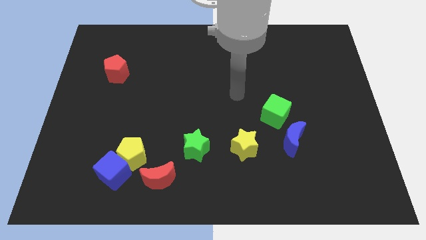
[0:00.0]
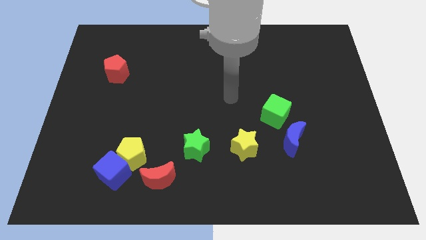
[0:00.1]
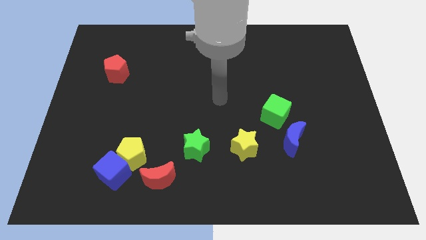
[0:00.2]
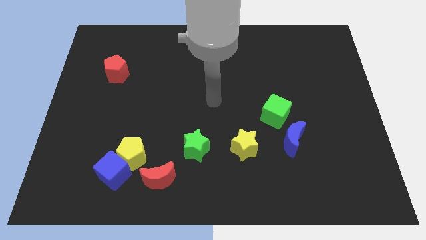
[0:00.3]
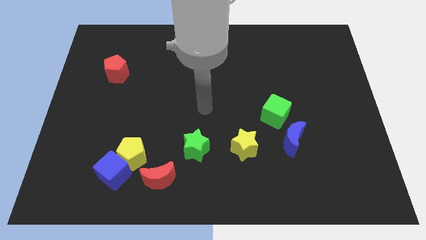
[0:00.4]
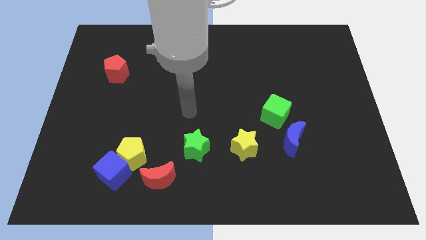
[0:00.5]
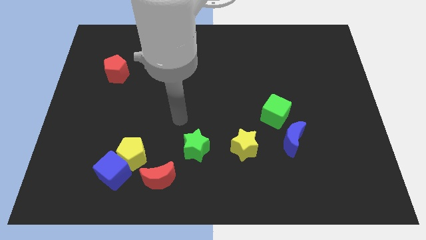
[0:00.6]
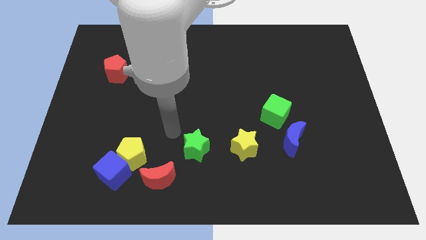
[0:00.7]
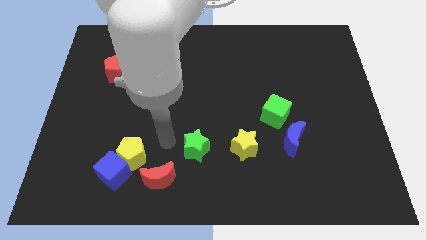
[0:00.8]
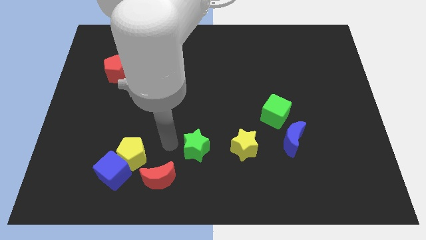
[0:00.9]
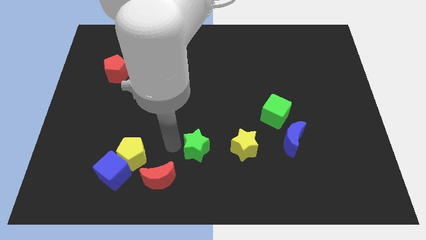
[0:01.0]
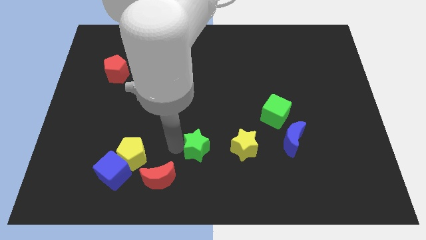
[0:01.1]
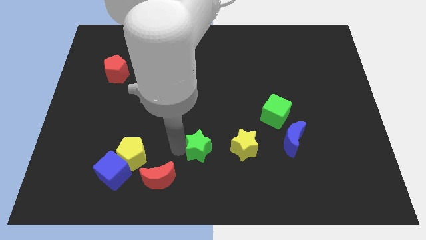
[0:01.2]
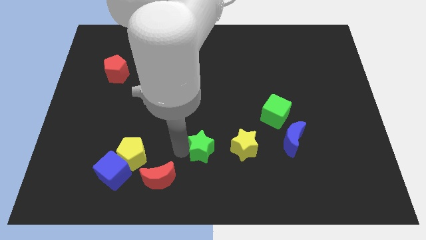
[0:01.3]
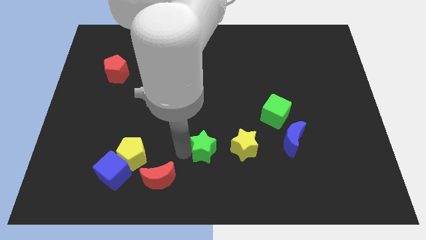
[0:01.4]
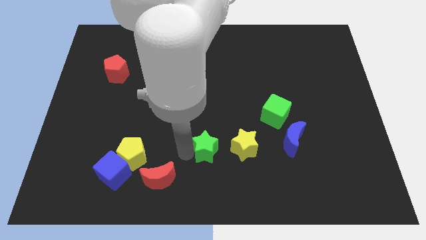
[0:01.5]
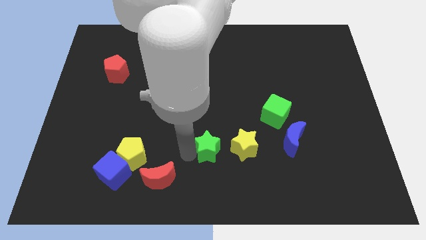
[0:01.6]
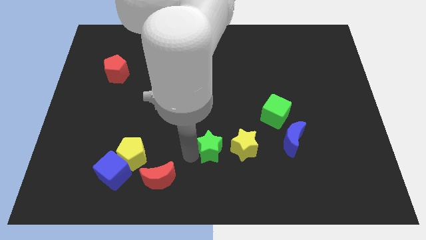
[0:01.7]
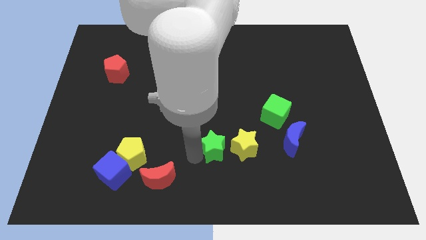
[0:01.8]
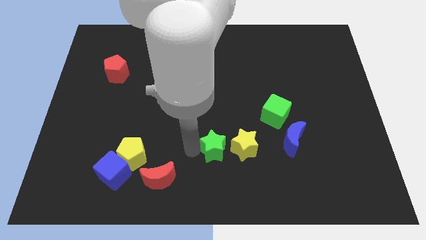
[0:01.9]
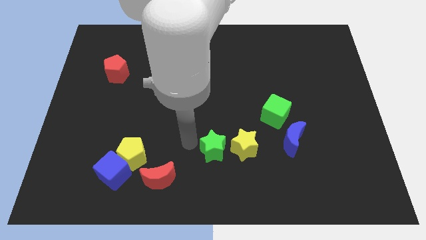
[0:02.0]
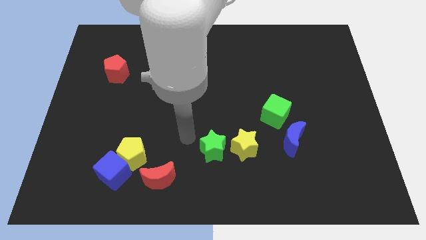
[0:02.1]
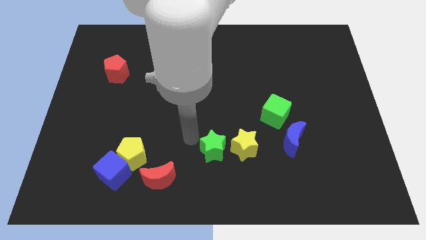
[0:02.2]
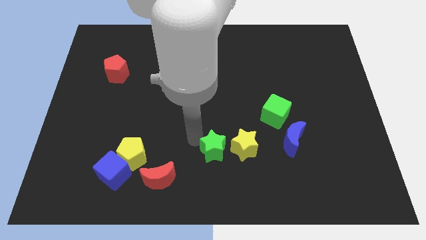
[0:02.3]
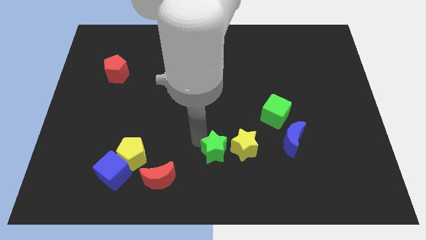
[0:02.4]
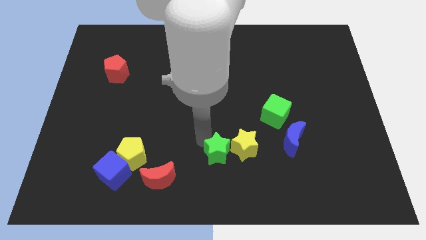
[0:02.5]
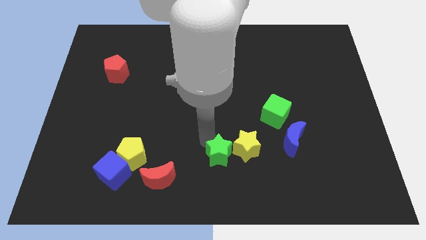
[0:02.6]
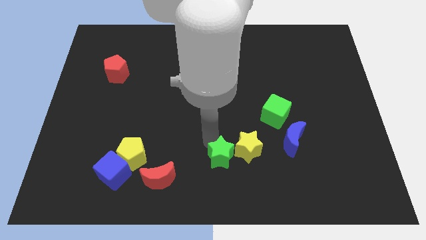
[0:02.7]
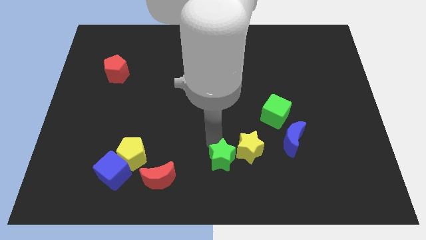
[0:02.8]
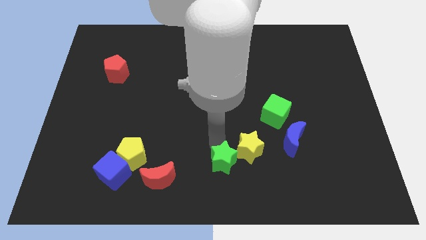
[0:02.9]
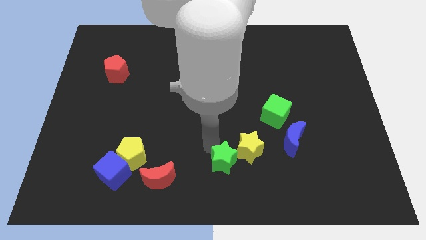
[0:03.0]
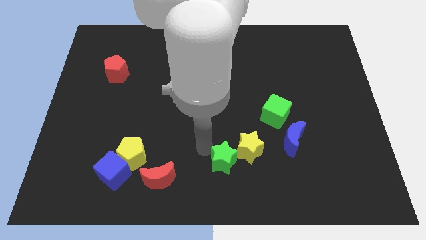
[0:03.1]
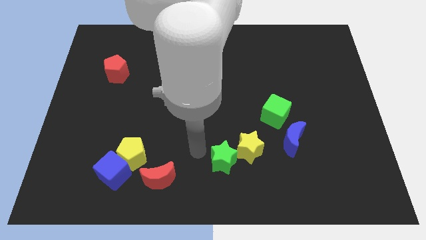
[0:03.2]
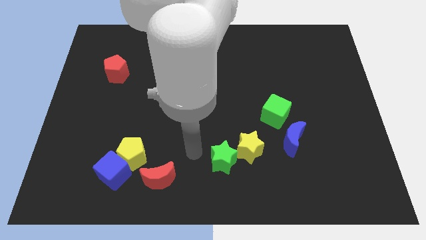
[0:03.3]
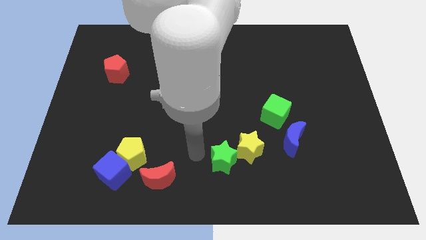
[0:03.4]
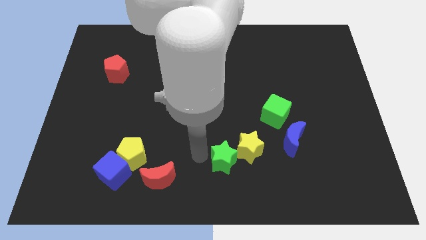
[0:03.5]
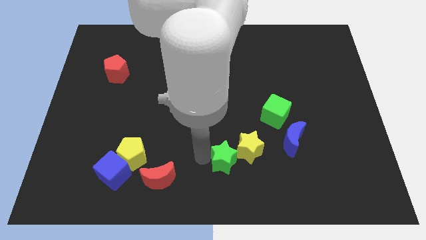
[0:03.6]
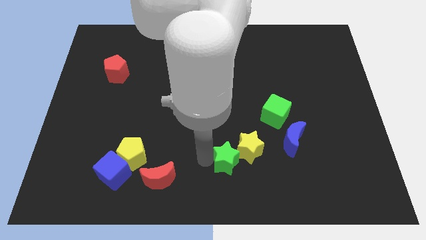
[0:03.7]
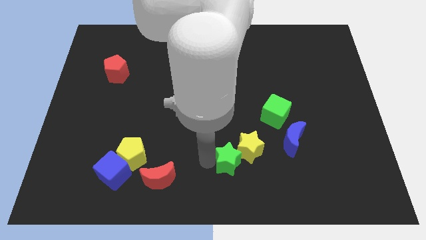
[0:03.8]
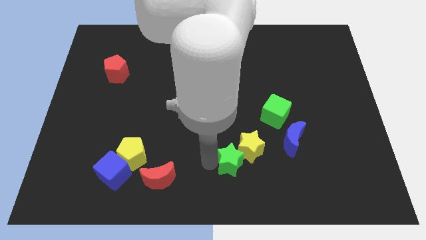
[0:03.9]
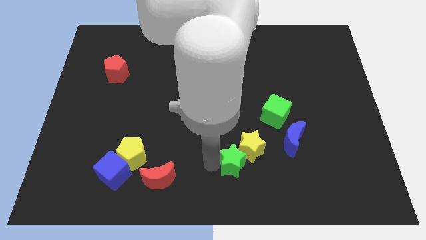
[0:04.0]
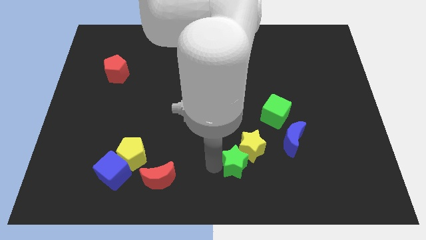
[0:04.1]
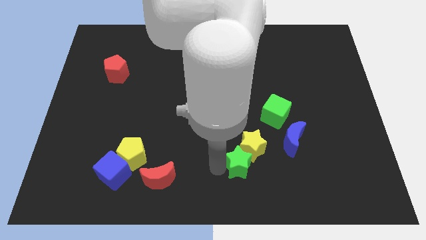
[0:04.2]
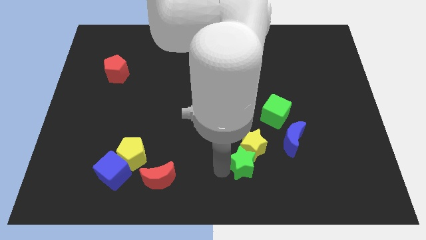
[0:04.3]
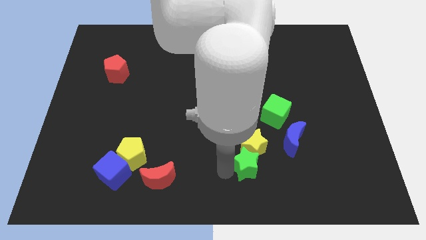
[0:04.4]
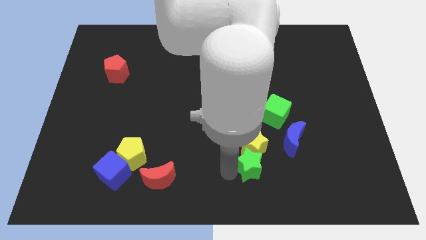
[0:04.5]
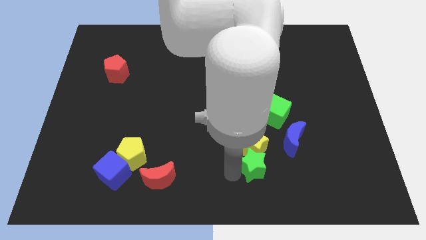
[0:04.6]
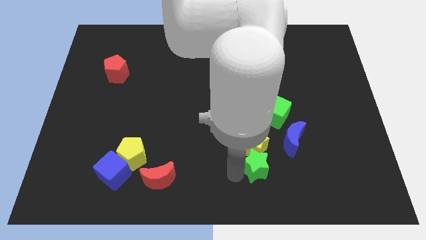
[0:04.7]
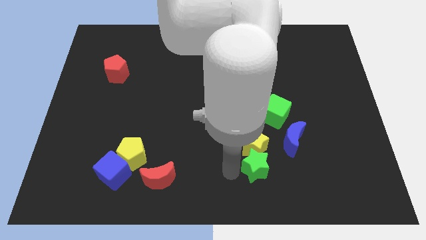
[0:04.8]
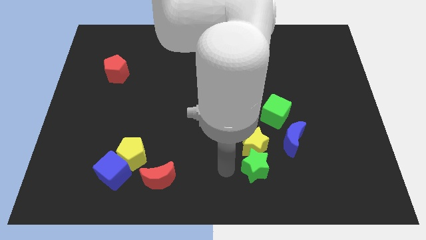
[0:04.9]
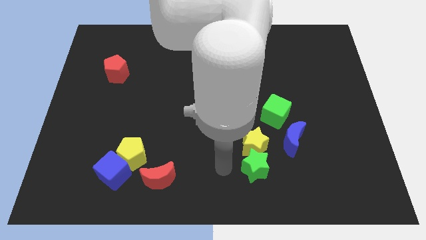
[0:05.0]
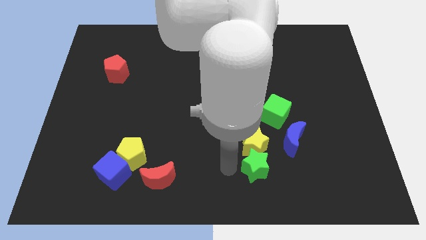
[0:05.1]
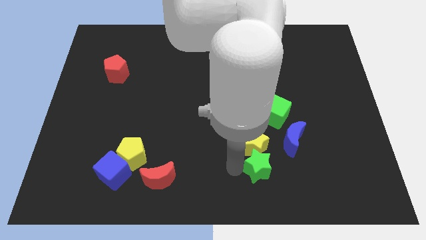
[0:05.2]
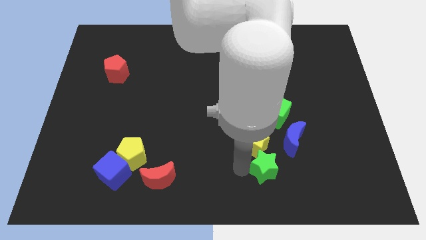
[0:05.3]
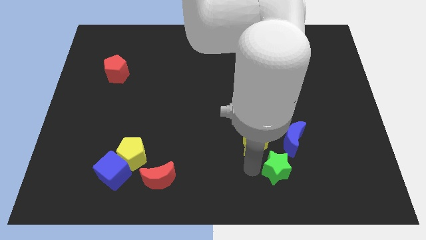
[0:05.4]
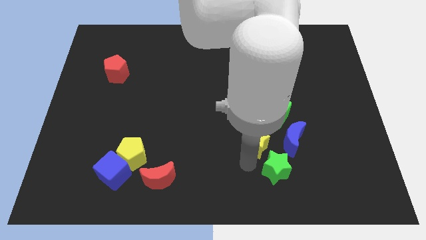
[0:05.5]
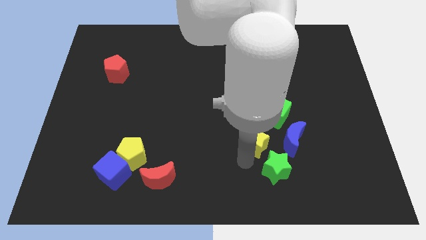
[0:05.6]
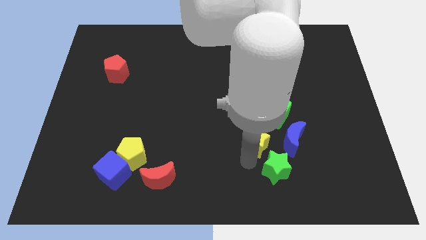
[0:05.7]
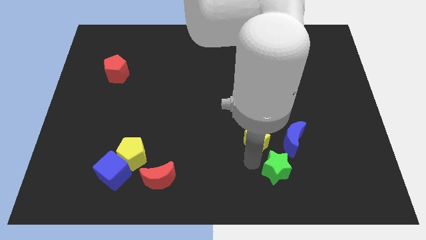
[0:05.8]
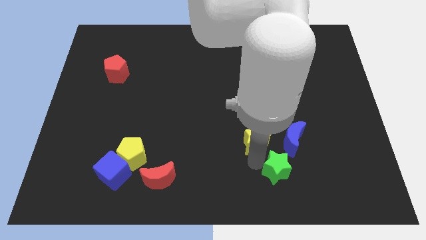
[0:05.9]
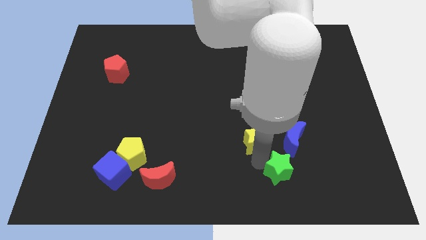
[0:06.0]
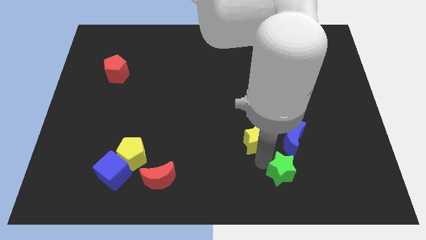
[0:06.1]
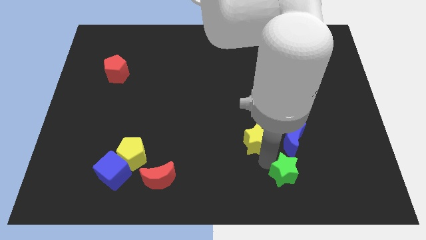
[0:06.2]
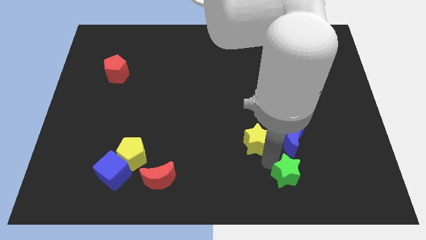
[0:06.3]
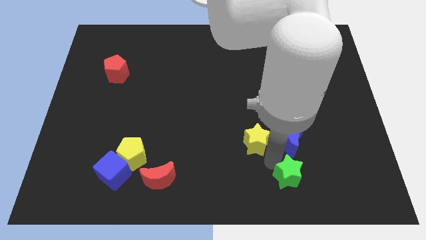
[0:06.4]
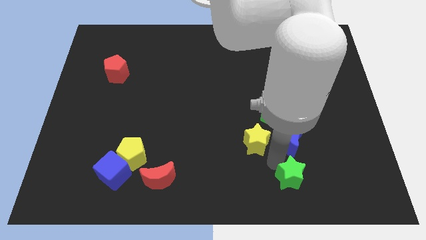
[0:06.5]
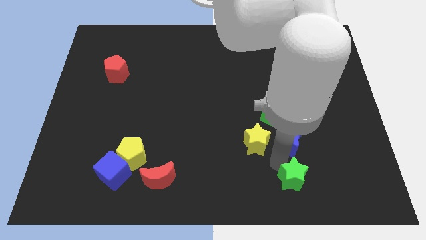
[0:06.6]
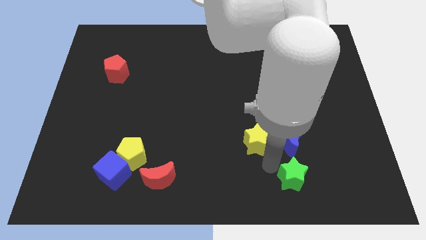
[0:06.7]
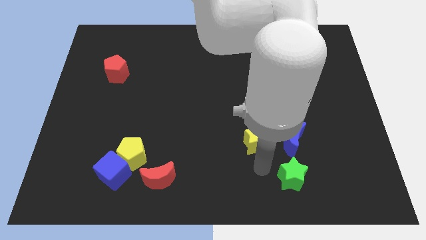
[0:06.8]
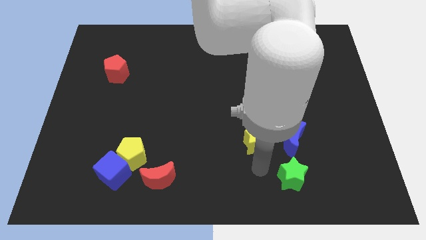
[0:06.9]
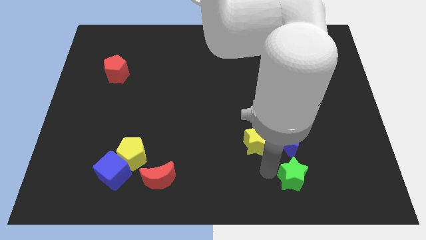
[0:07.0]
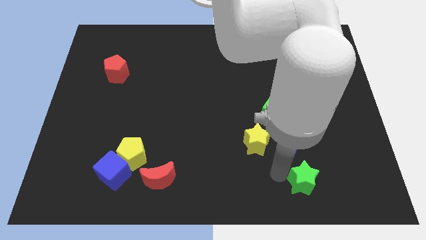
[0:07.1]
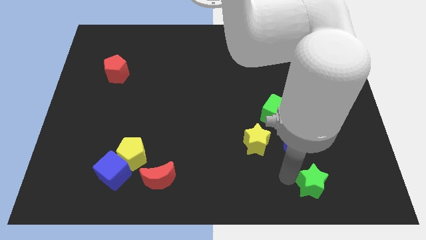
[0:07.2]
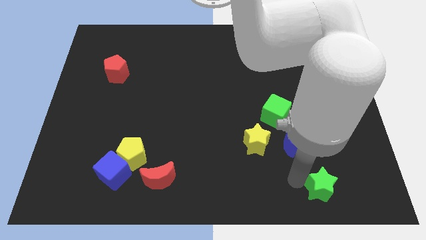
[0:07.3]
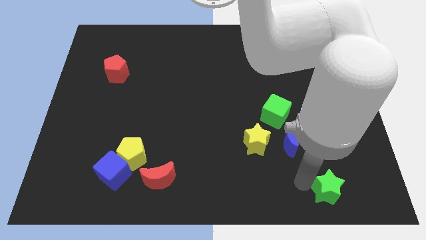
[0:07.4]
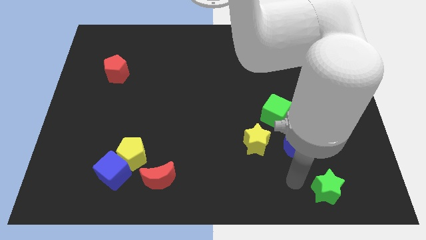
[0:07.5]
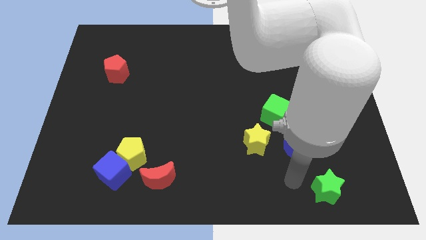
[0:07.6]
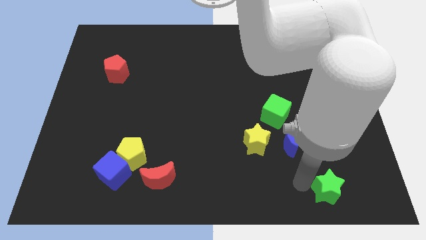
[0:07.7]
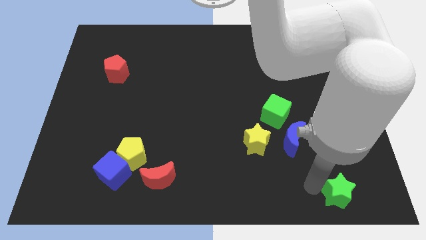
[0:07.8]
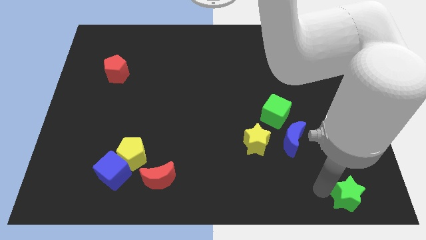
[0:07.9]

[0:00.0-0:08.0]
move the green star to the lower right corner
